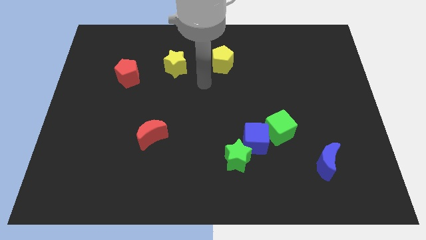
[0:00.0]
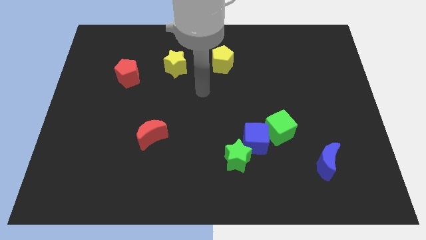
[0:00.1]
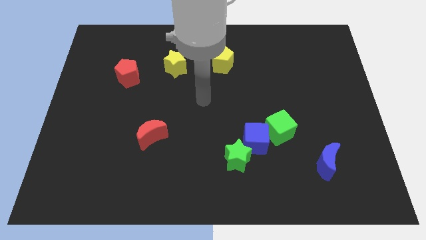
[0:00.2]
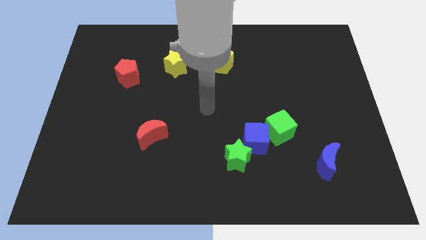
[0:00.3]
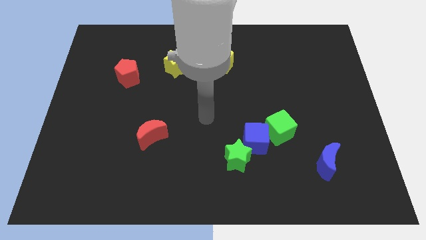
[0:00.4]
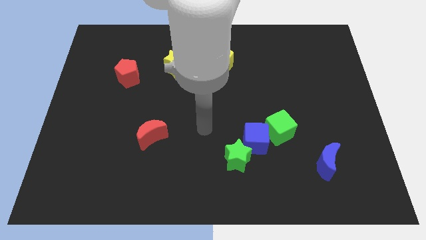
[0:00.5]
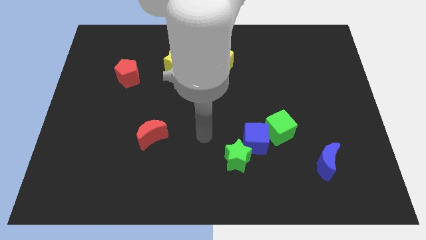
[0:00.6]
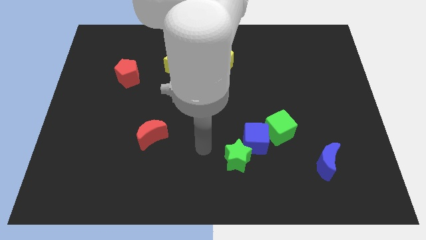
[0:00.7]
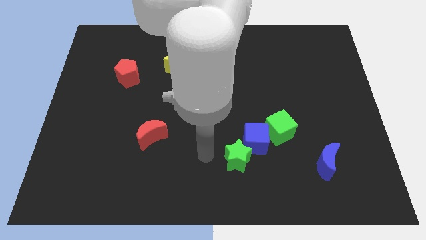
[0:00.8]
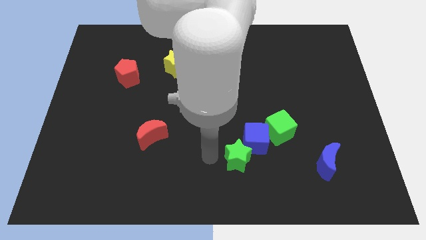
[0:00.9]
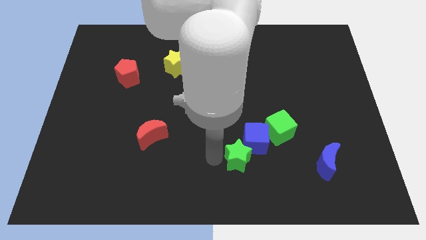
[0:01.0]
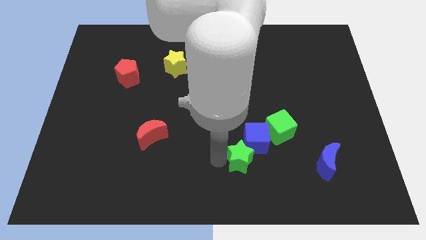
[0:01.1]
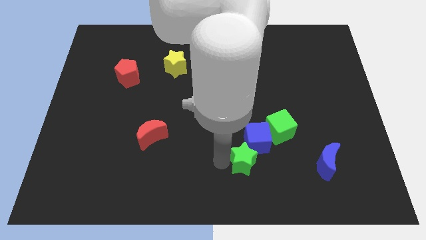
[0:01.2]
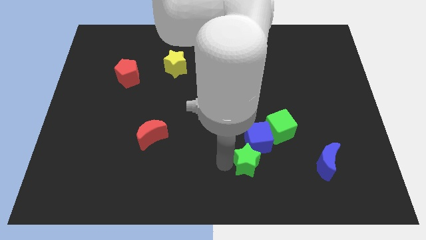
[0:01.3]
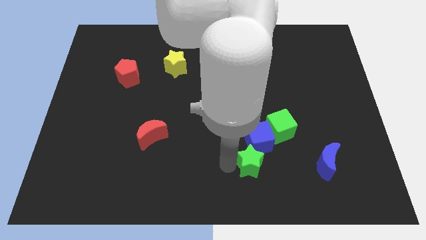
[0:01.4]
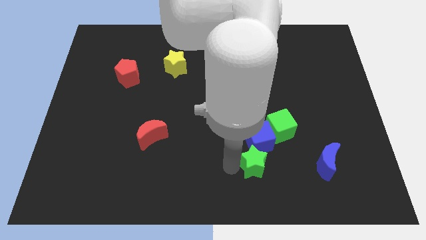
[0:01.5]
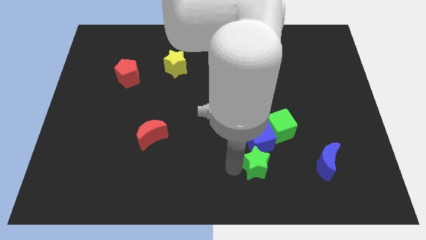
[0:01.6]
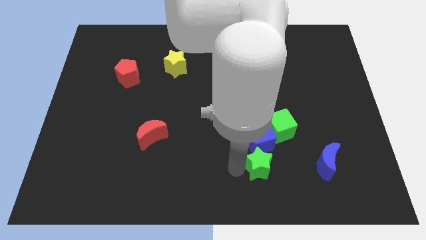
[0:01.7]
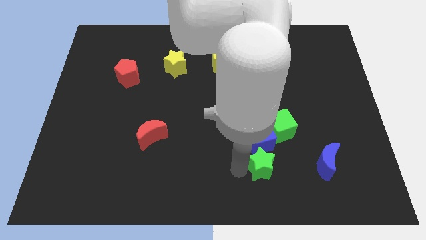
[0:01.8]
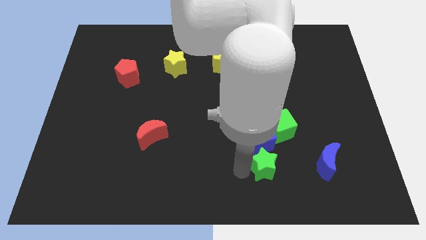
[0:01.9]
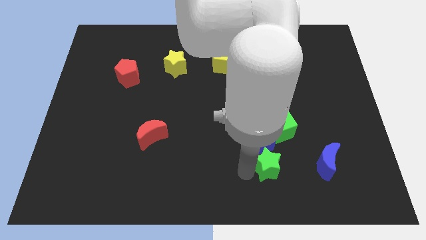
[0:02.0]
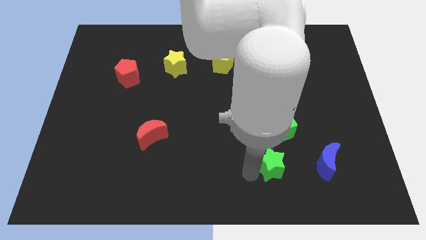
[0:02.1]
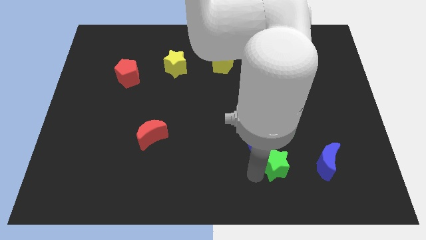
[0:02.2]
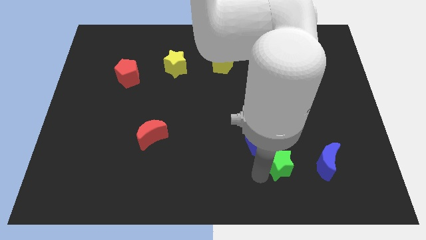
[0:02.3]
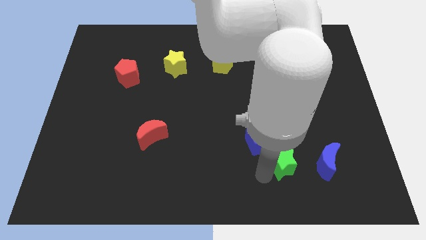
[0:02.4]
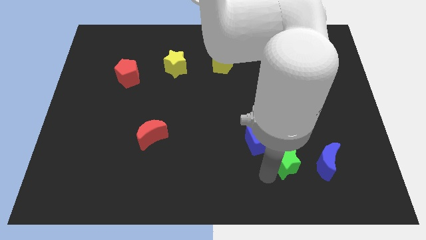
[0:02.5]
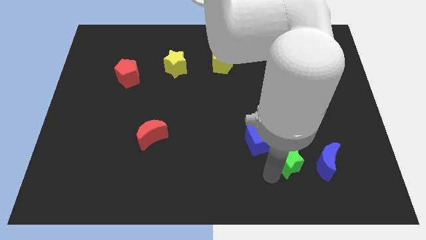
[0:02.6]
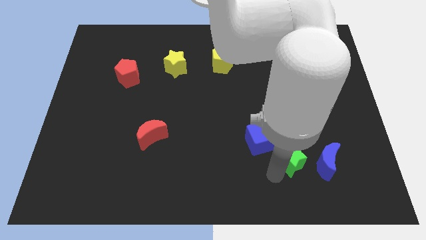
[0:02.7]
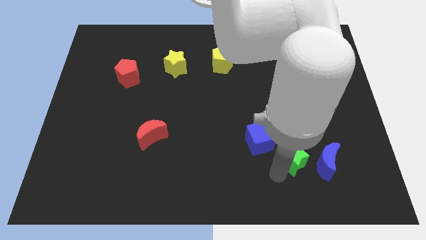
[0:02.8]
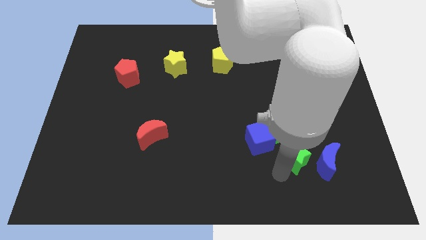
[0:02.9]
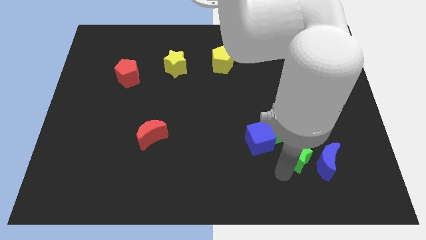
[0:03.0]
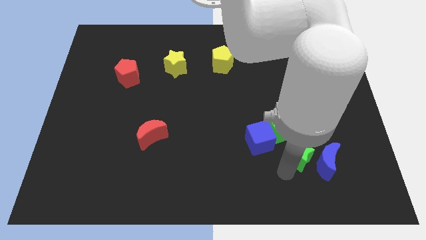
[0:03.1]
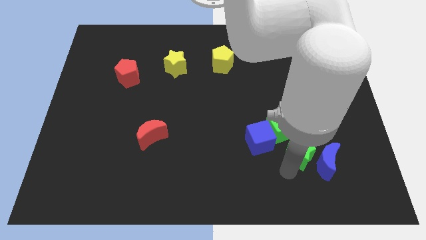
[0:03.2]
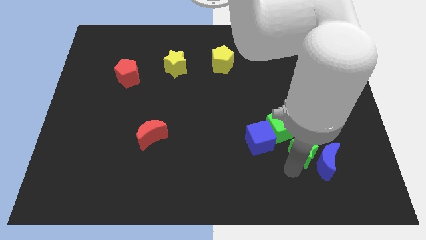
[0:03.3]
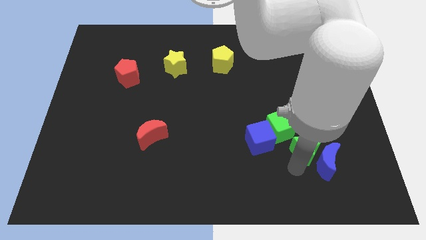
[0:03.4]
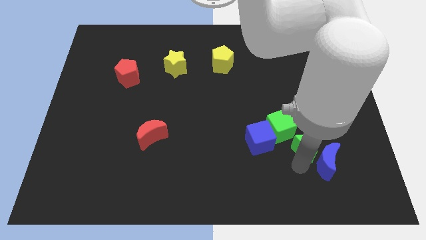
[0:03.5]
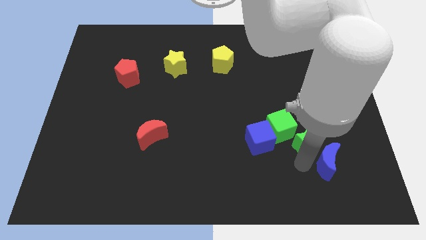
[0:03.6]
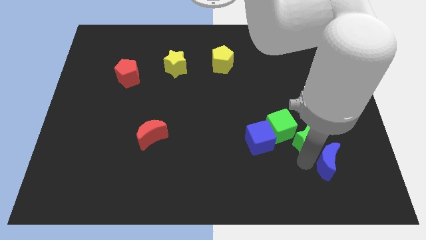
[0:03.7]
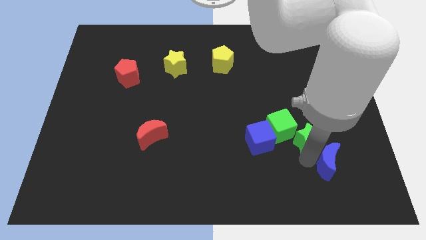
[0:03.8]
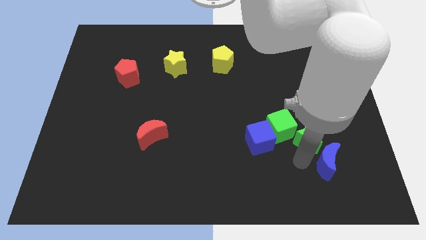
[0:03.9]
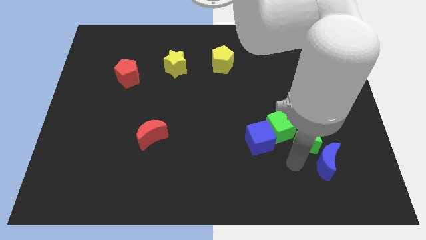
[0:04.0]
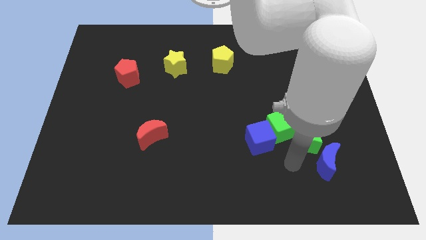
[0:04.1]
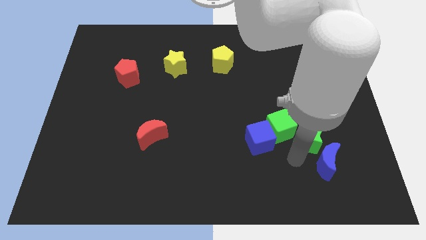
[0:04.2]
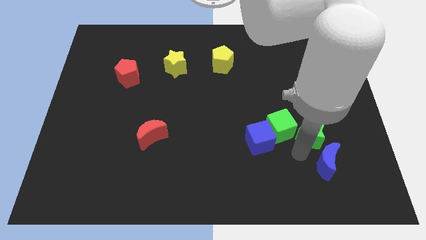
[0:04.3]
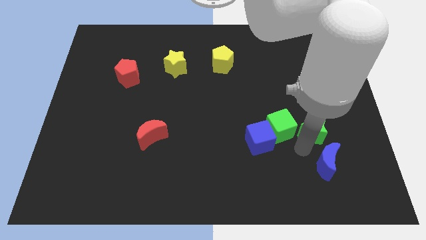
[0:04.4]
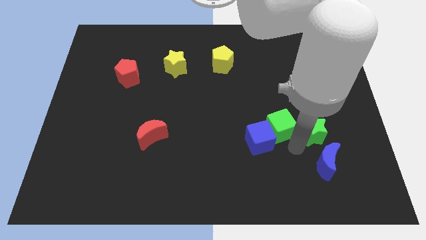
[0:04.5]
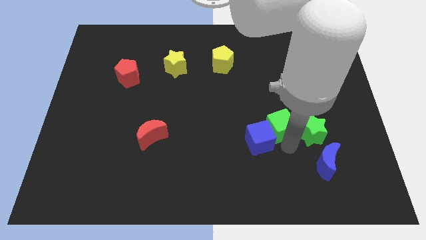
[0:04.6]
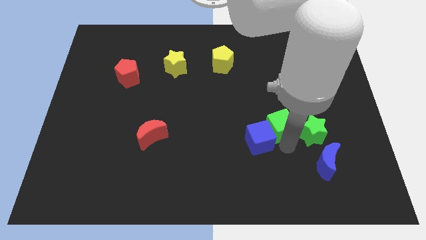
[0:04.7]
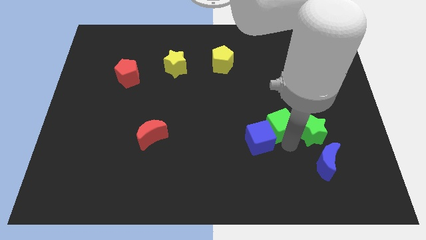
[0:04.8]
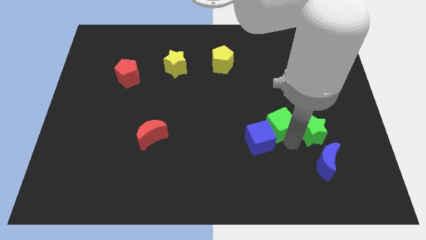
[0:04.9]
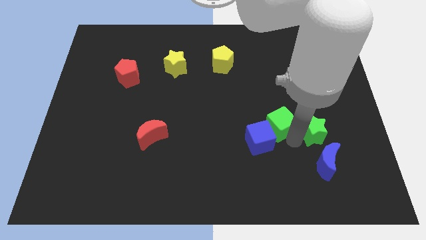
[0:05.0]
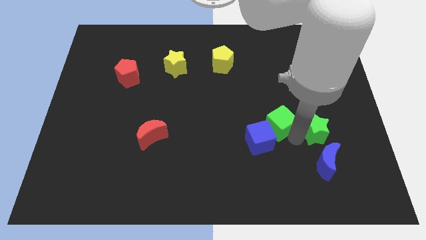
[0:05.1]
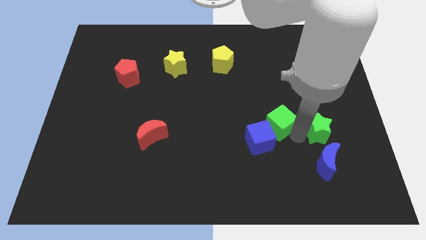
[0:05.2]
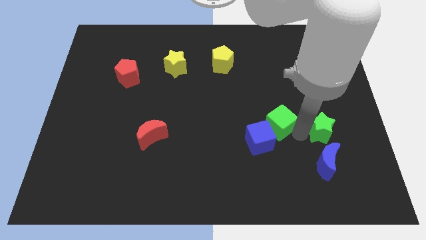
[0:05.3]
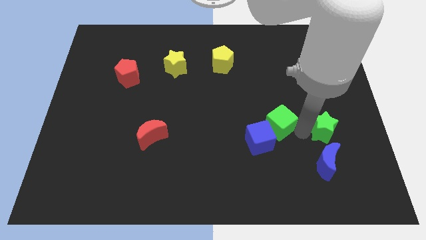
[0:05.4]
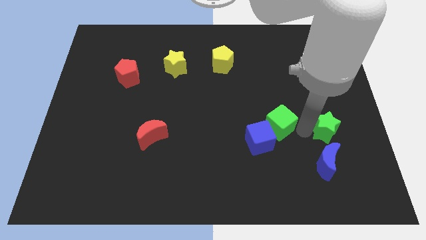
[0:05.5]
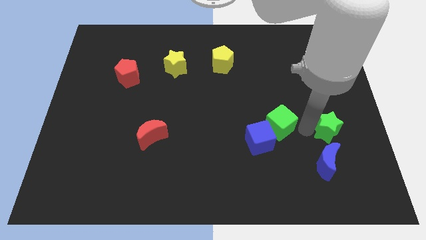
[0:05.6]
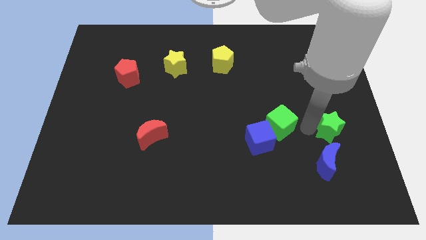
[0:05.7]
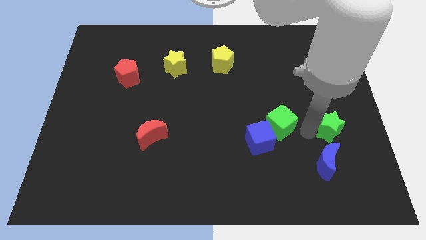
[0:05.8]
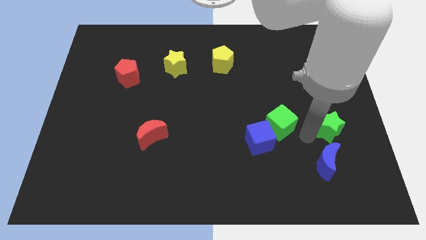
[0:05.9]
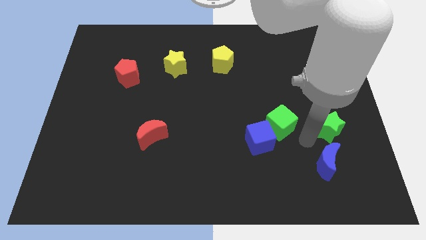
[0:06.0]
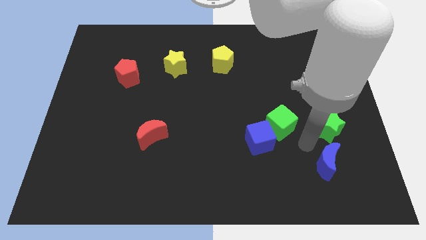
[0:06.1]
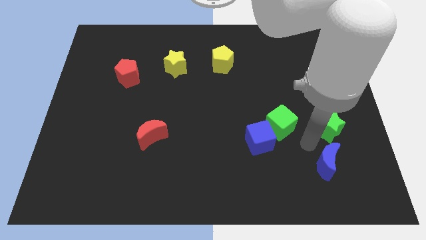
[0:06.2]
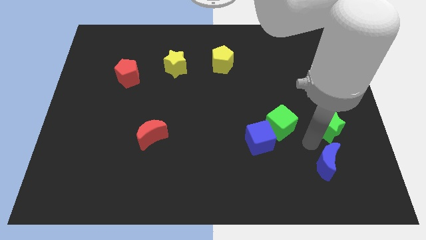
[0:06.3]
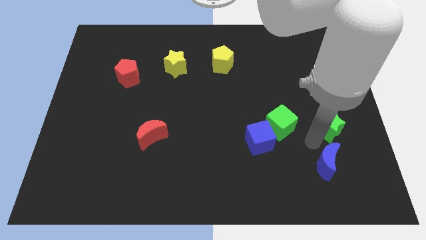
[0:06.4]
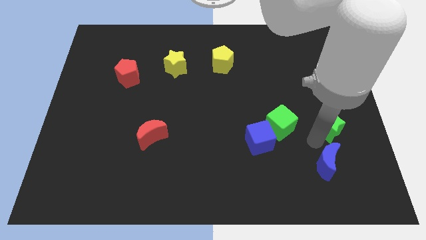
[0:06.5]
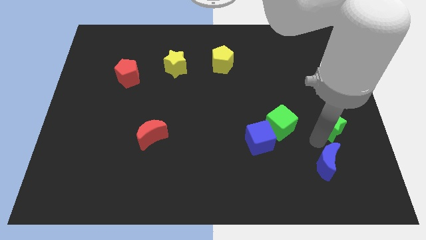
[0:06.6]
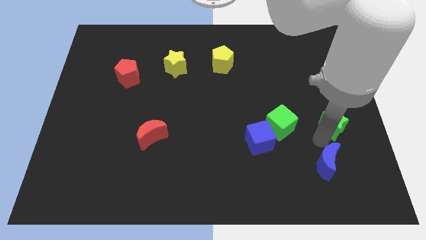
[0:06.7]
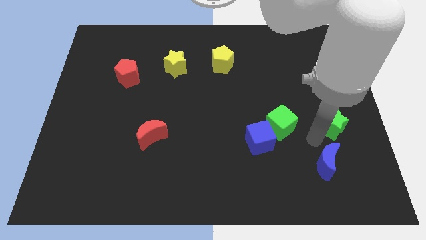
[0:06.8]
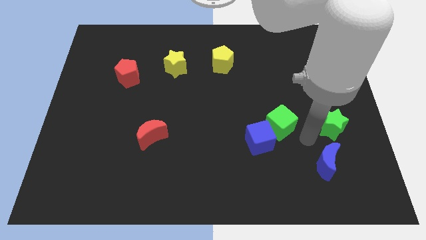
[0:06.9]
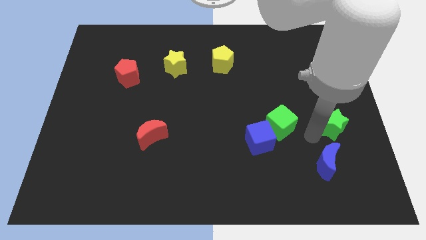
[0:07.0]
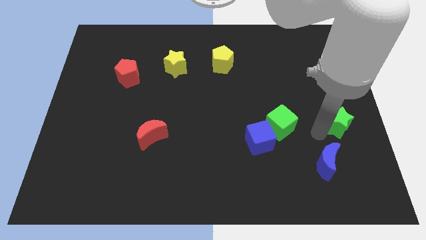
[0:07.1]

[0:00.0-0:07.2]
push the green star to the right side of the board
